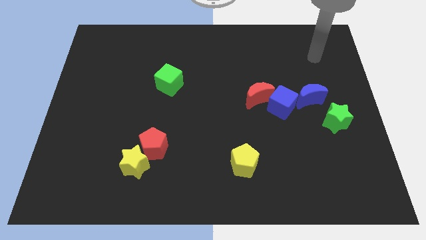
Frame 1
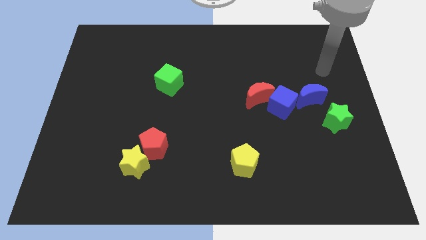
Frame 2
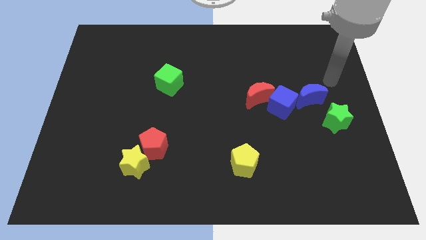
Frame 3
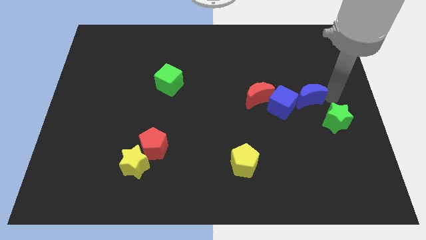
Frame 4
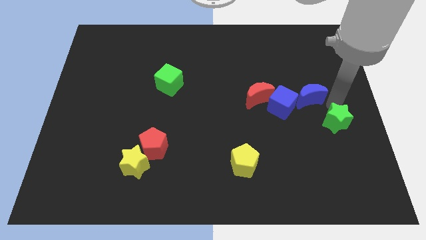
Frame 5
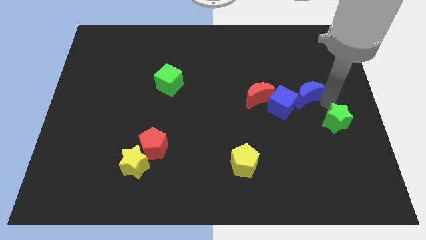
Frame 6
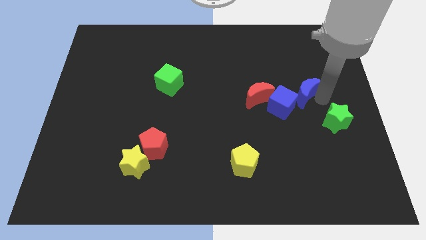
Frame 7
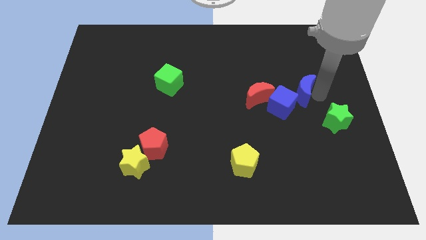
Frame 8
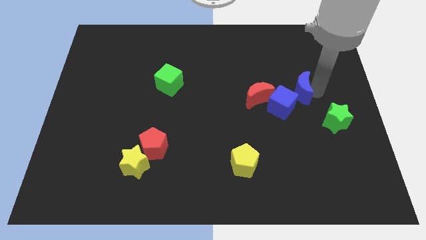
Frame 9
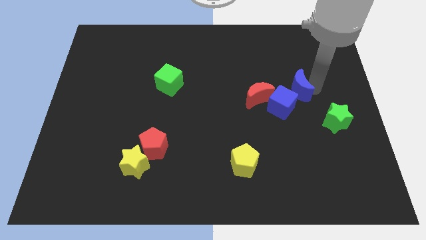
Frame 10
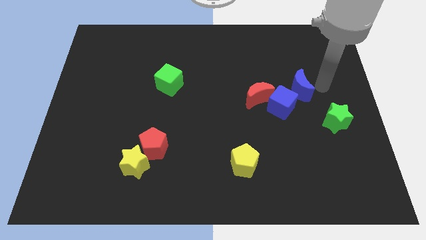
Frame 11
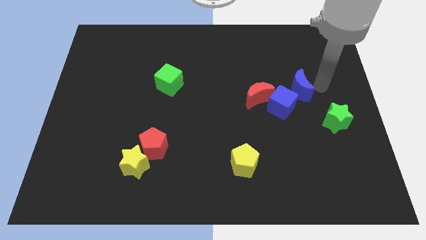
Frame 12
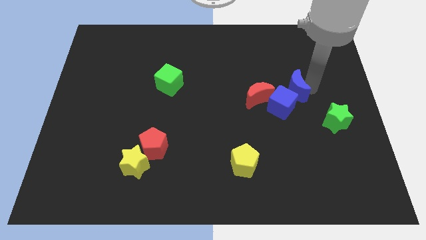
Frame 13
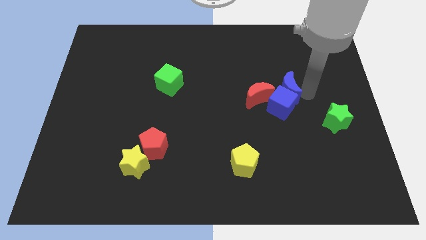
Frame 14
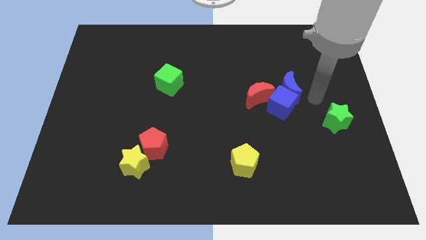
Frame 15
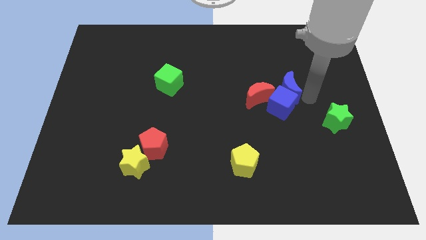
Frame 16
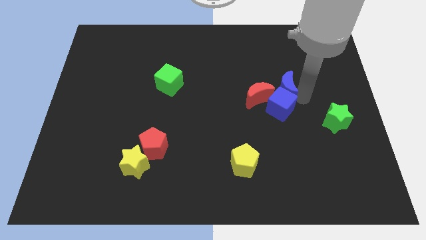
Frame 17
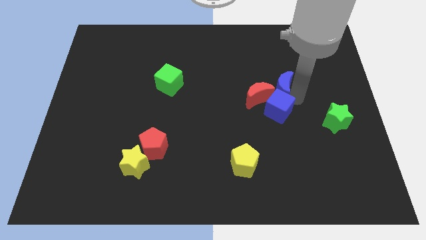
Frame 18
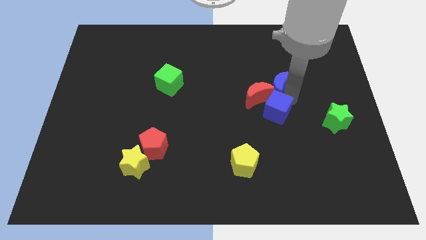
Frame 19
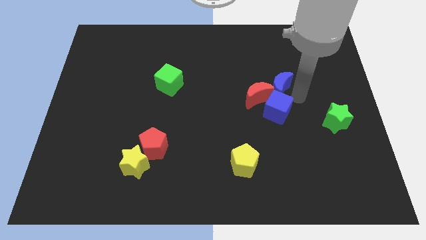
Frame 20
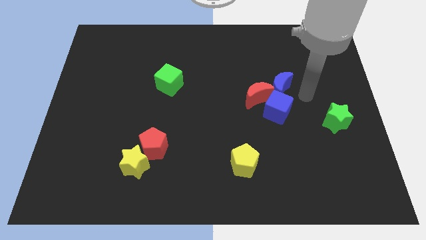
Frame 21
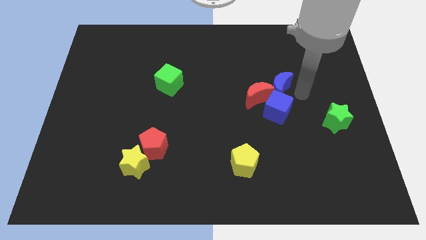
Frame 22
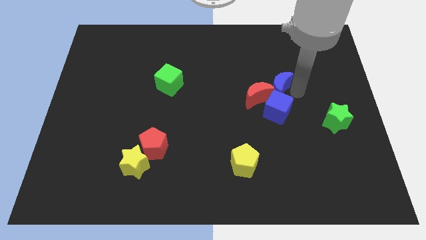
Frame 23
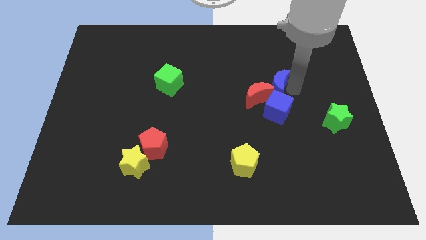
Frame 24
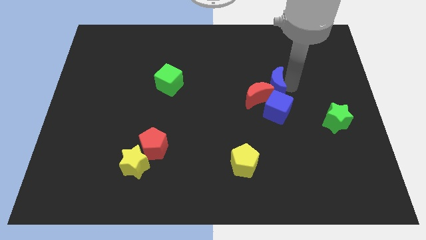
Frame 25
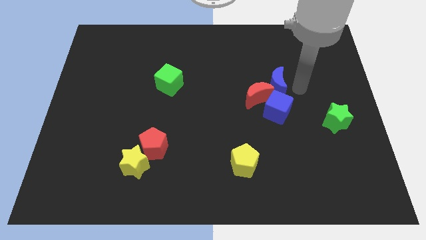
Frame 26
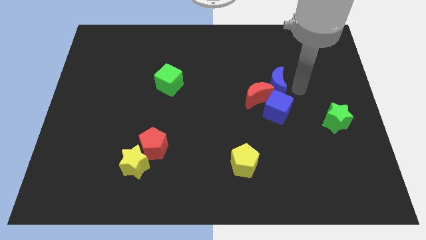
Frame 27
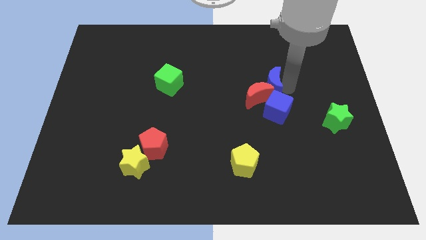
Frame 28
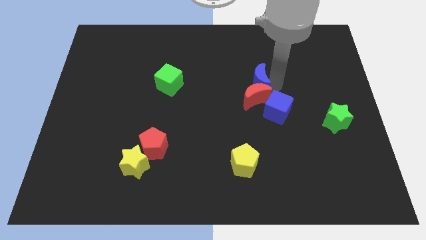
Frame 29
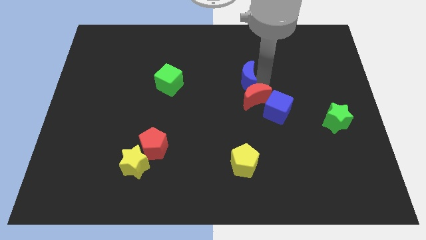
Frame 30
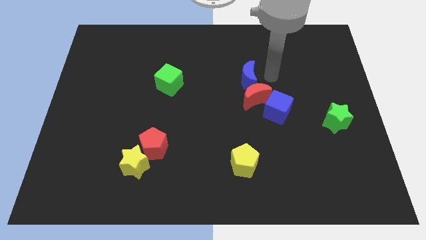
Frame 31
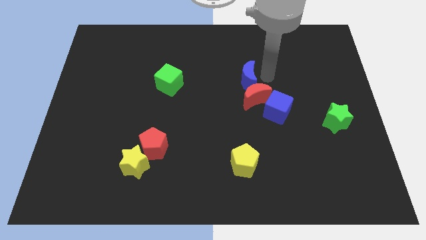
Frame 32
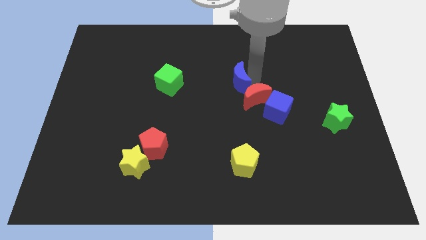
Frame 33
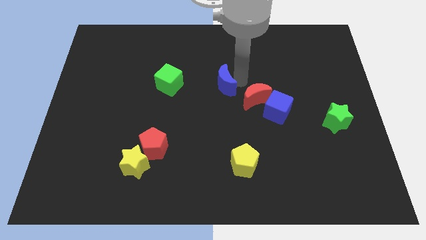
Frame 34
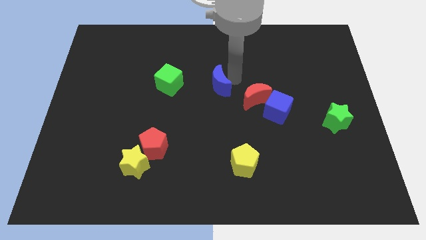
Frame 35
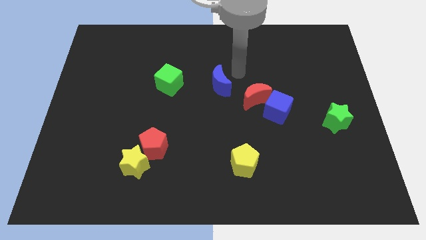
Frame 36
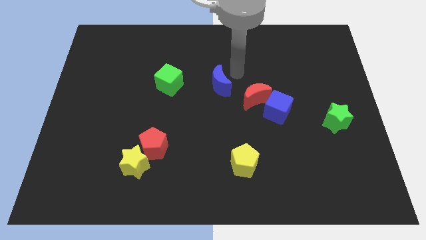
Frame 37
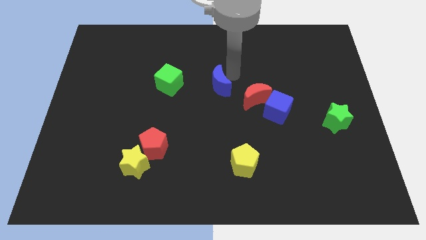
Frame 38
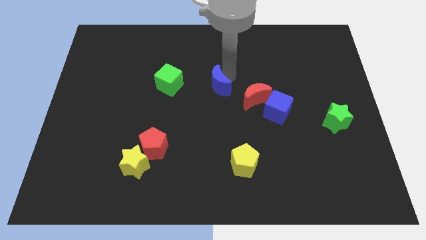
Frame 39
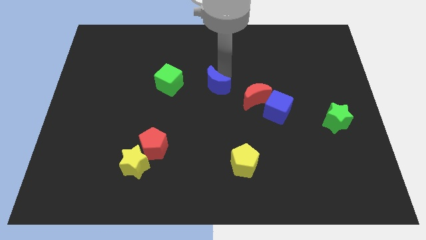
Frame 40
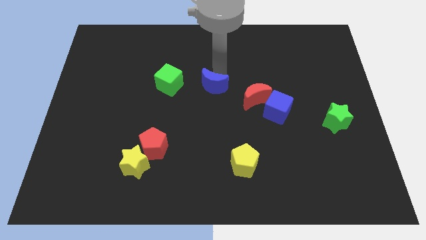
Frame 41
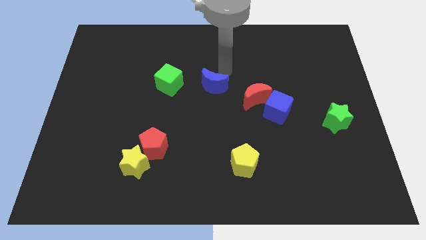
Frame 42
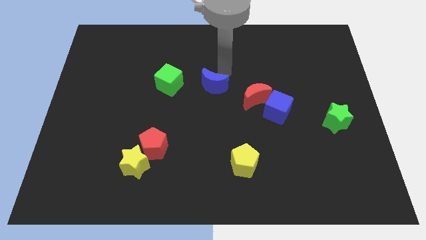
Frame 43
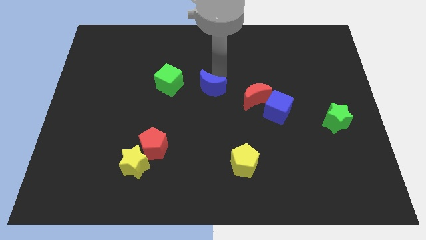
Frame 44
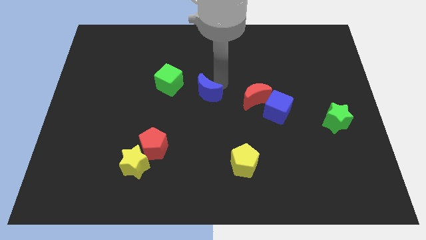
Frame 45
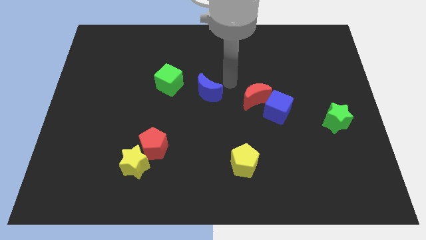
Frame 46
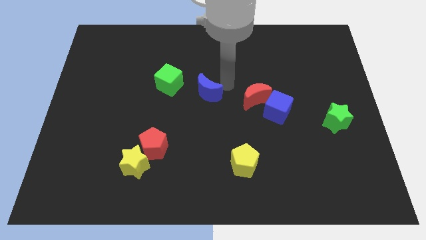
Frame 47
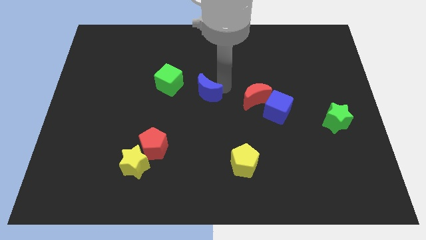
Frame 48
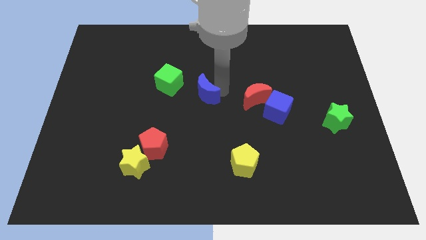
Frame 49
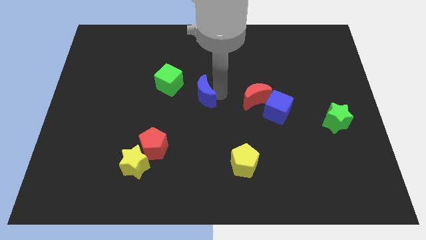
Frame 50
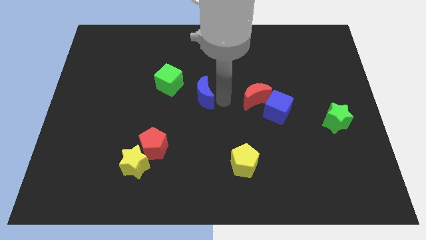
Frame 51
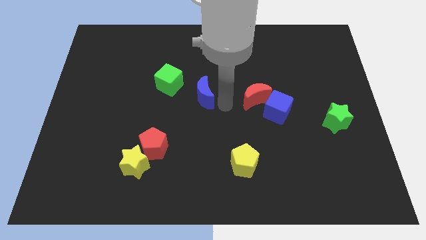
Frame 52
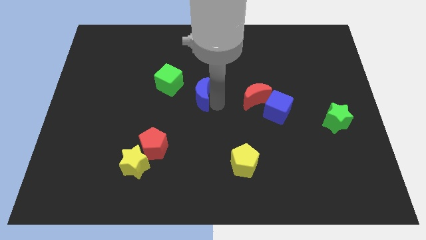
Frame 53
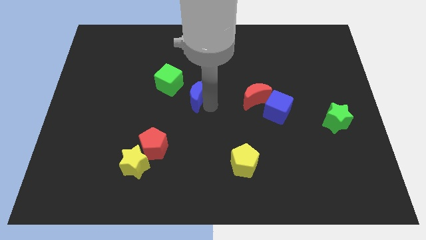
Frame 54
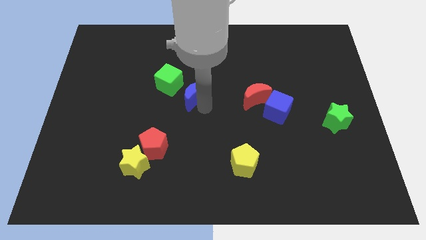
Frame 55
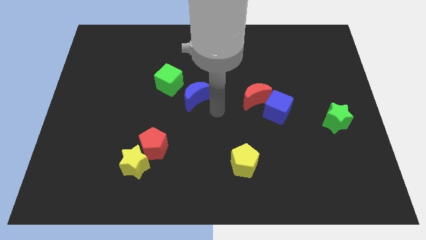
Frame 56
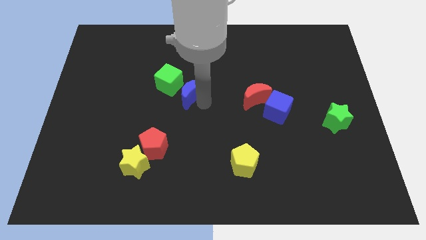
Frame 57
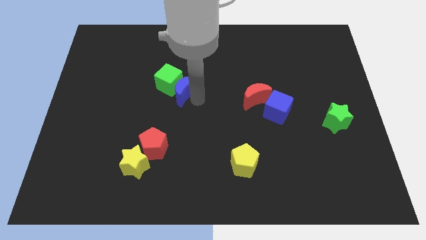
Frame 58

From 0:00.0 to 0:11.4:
put the blue moon close to the green cube

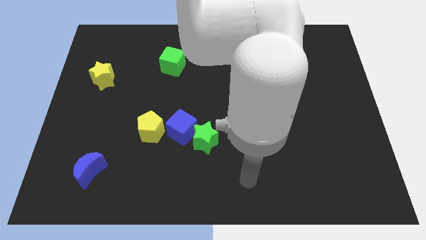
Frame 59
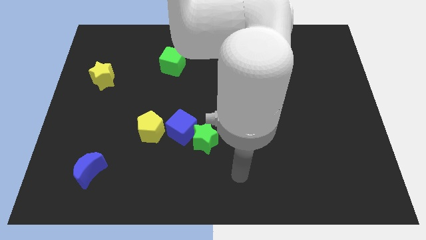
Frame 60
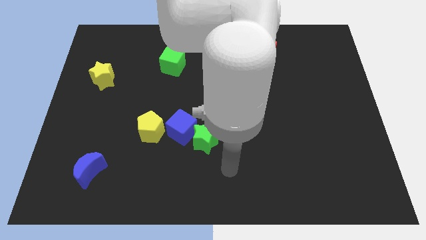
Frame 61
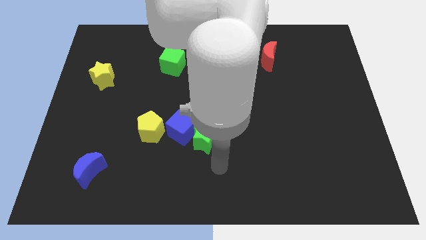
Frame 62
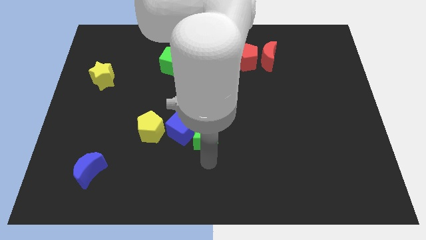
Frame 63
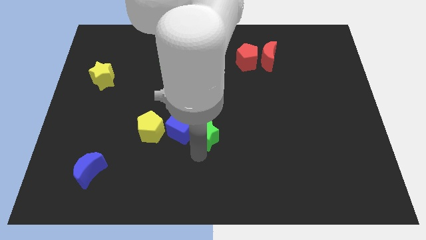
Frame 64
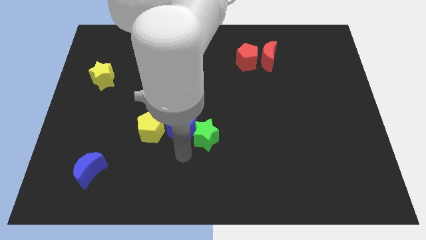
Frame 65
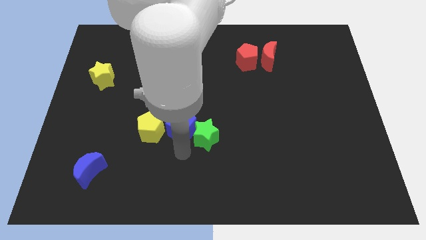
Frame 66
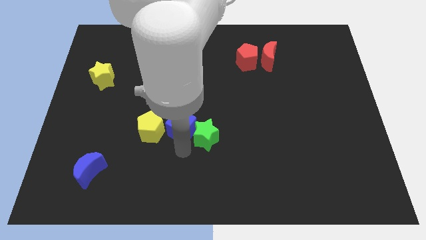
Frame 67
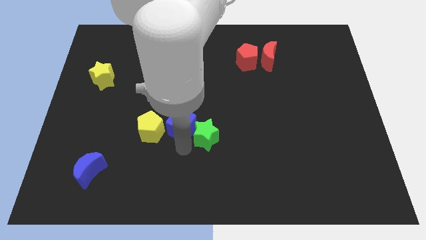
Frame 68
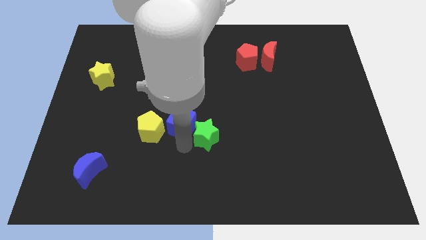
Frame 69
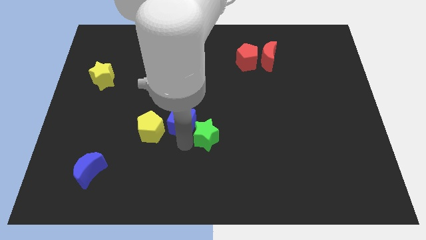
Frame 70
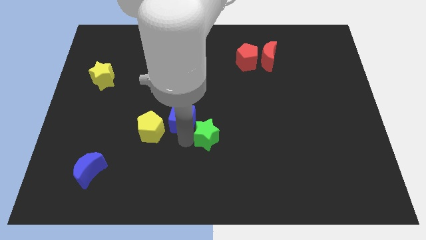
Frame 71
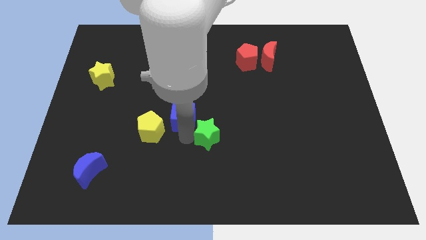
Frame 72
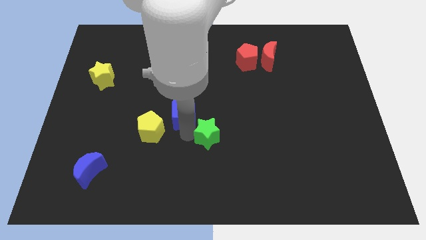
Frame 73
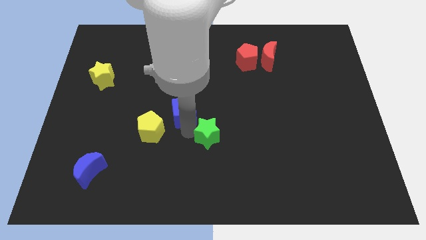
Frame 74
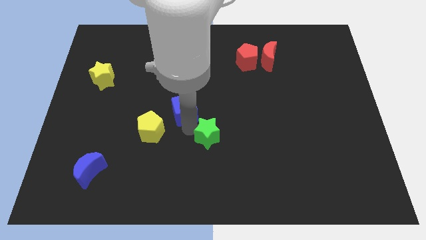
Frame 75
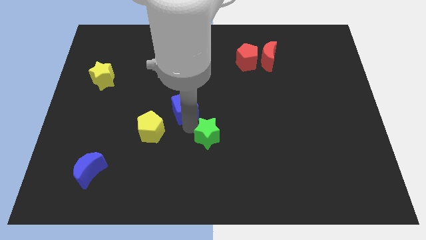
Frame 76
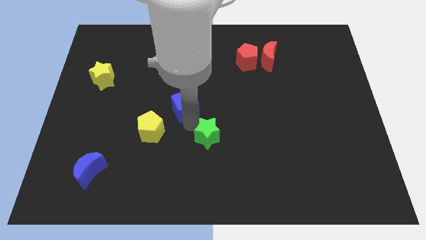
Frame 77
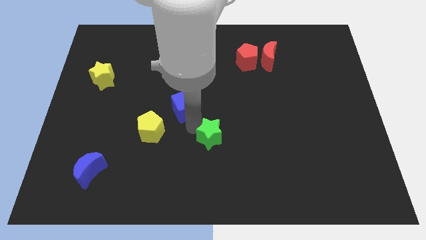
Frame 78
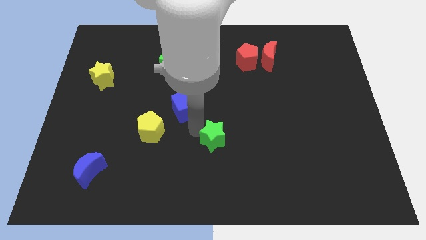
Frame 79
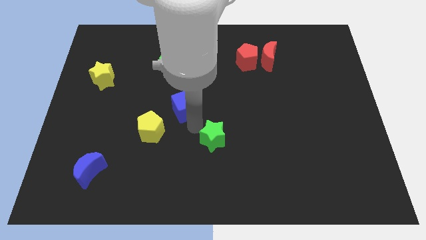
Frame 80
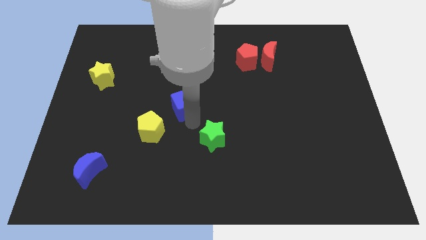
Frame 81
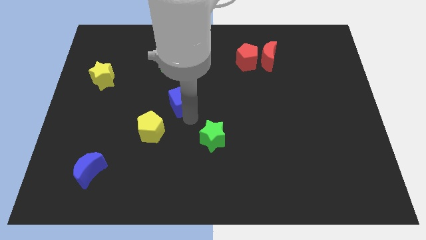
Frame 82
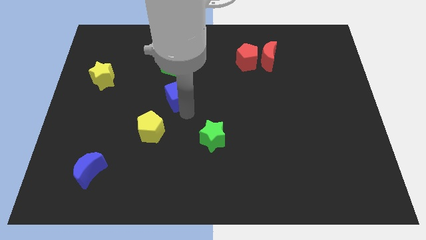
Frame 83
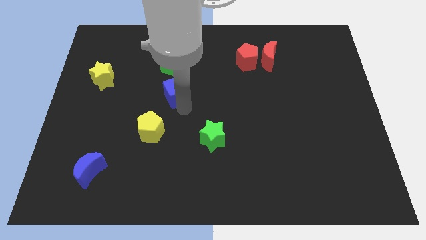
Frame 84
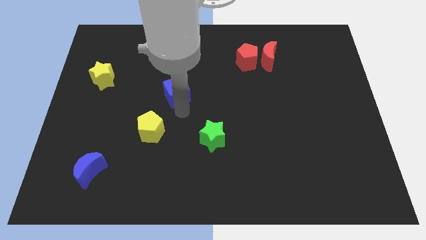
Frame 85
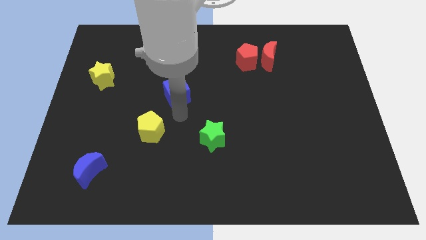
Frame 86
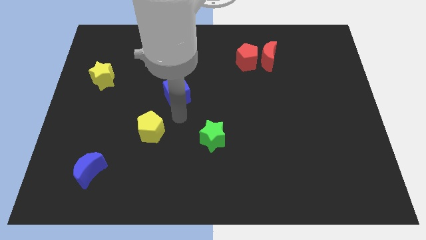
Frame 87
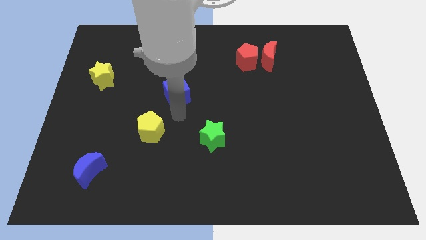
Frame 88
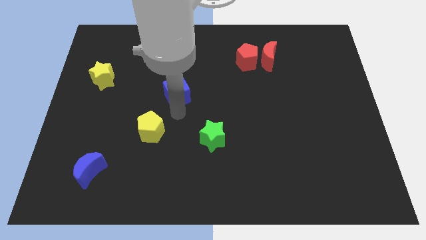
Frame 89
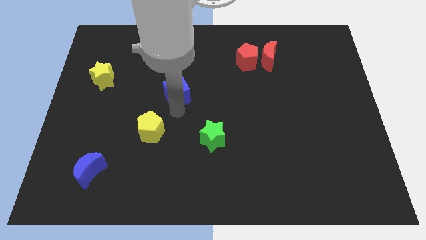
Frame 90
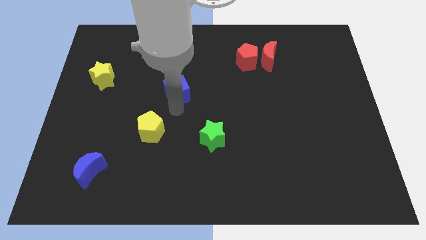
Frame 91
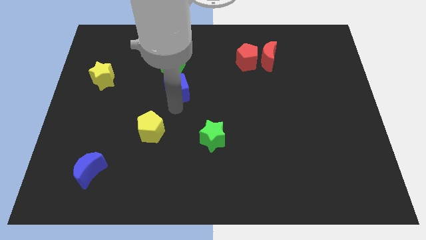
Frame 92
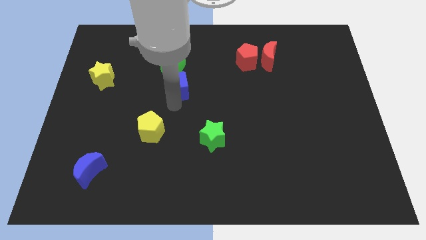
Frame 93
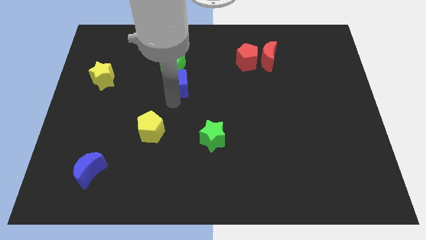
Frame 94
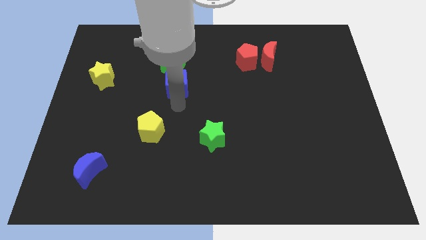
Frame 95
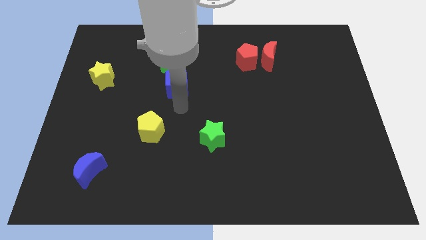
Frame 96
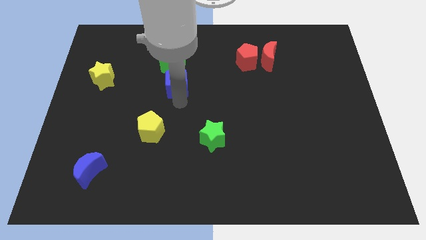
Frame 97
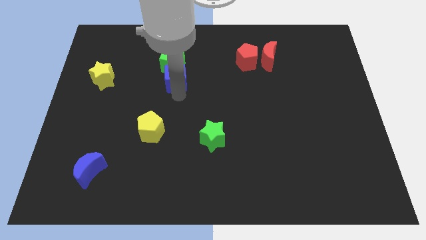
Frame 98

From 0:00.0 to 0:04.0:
push the blue cube close to the green cube
